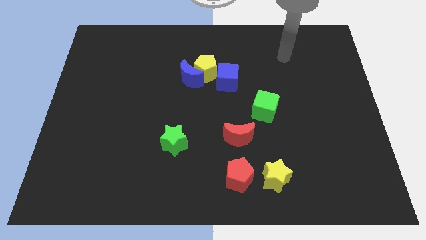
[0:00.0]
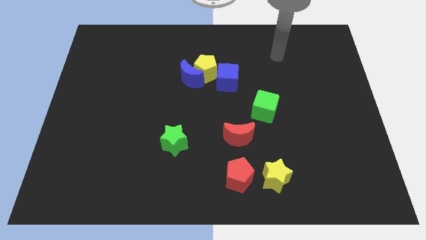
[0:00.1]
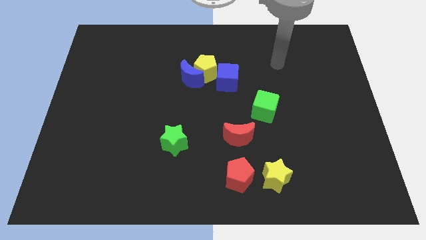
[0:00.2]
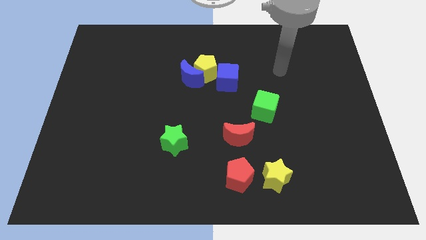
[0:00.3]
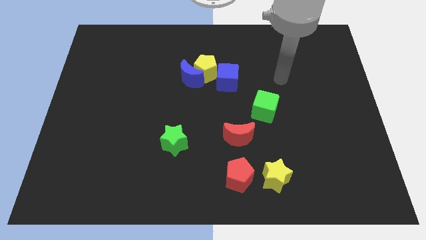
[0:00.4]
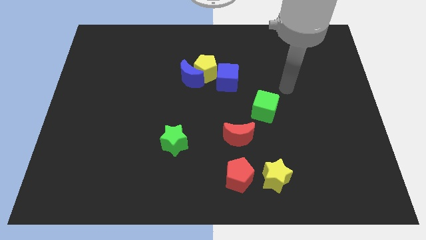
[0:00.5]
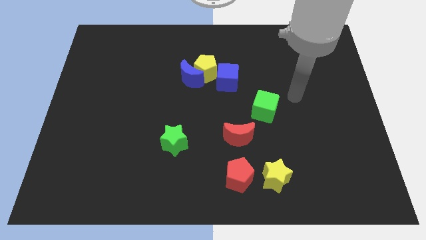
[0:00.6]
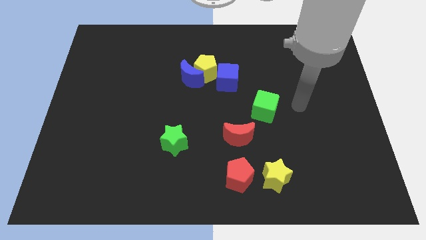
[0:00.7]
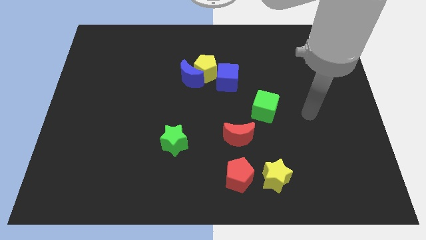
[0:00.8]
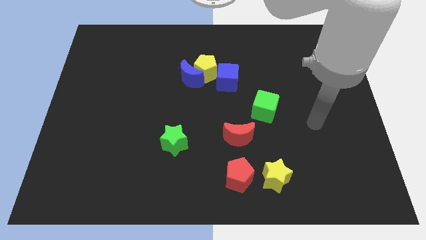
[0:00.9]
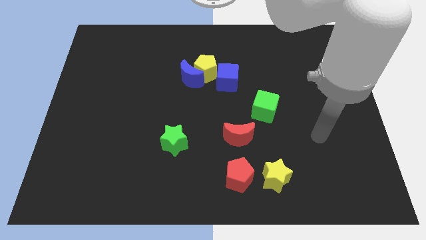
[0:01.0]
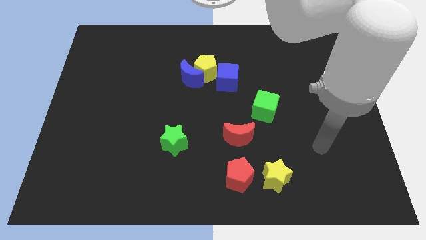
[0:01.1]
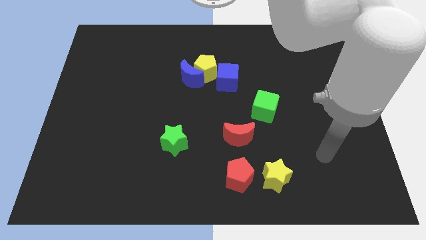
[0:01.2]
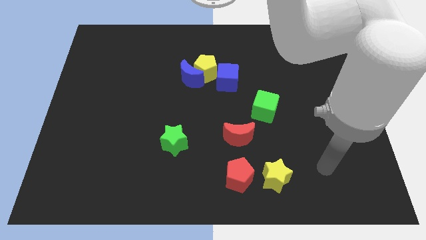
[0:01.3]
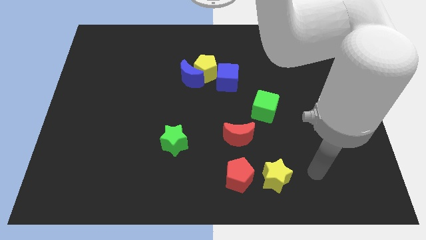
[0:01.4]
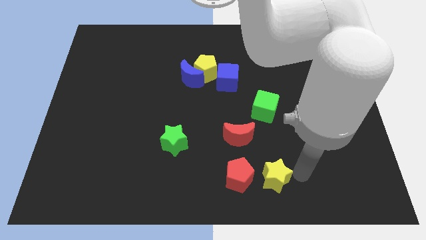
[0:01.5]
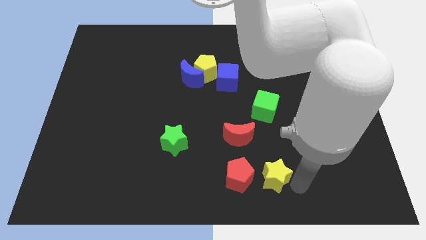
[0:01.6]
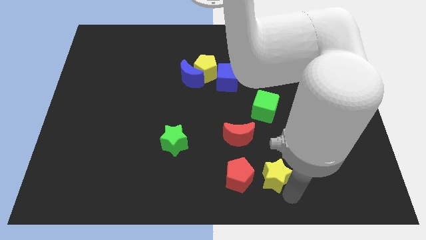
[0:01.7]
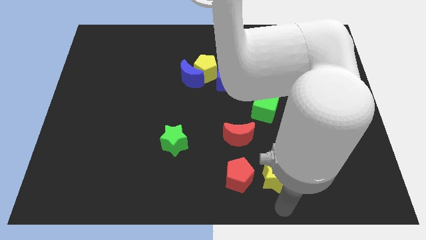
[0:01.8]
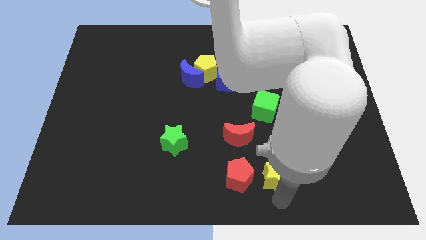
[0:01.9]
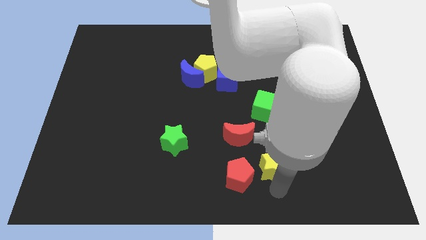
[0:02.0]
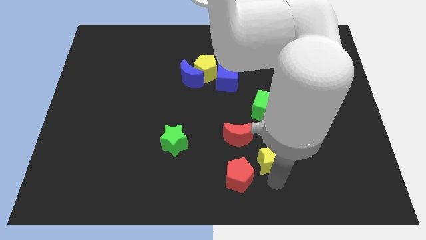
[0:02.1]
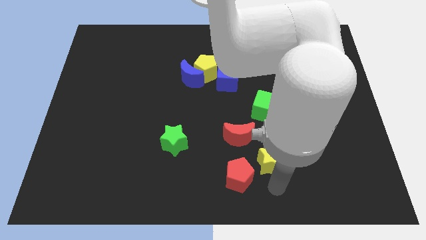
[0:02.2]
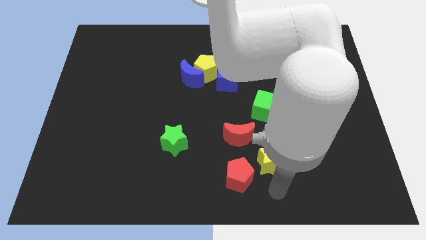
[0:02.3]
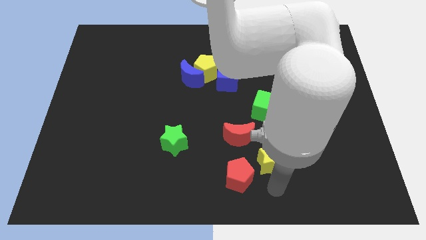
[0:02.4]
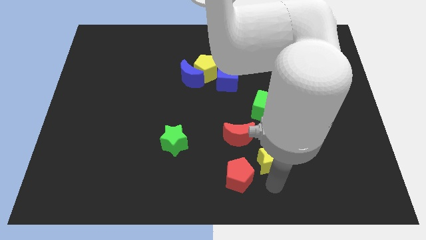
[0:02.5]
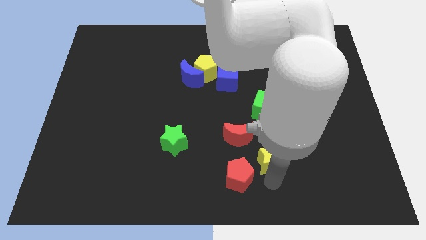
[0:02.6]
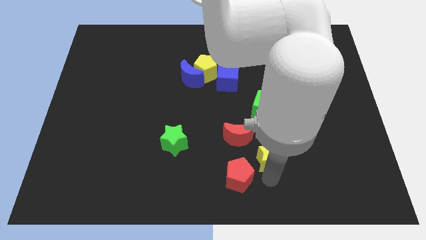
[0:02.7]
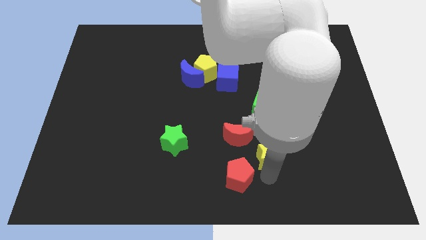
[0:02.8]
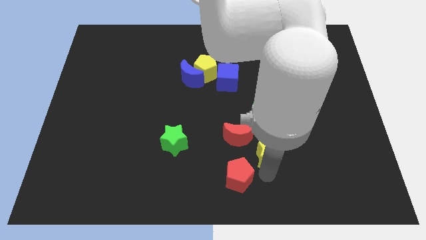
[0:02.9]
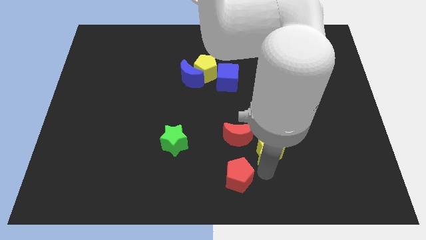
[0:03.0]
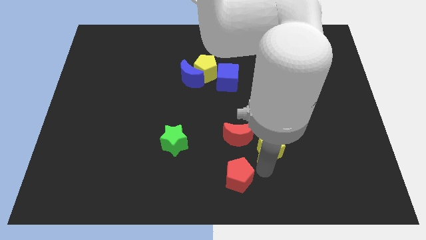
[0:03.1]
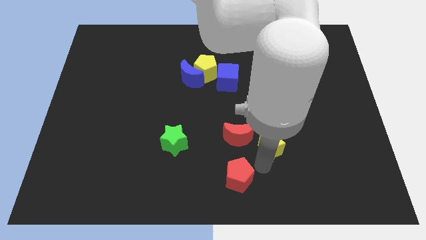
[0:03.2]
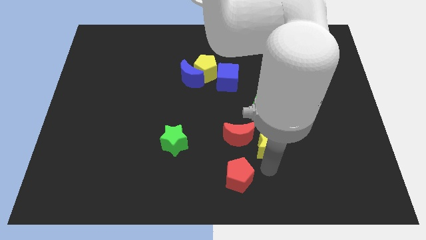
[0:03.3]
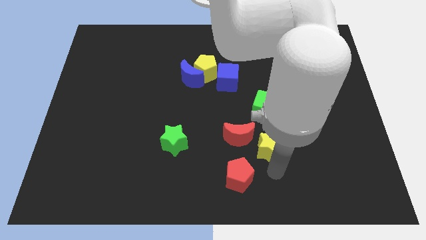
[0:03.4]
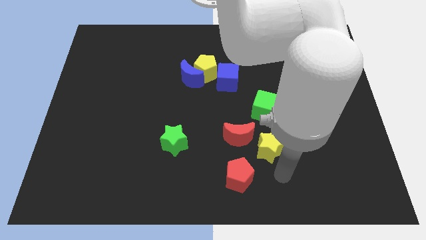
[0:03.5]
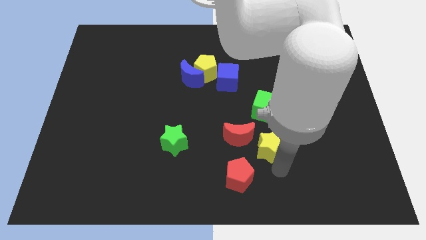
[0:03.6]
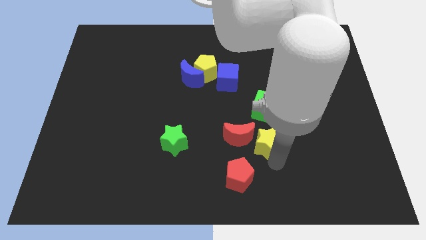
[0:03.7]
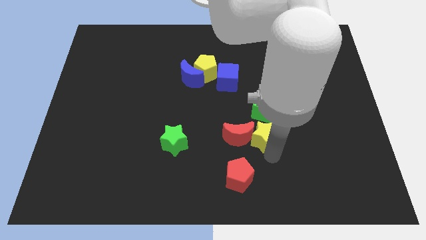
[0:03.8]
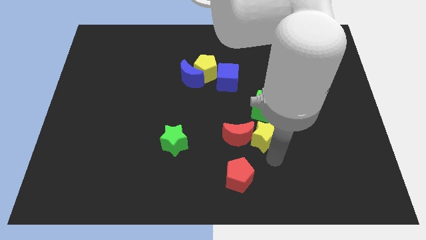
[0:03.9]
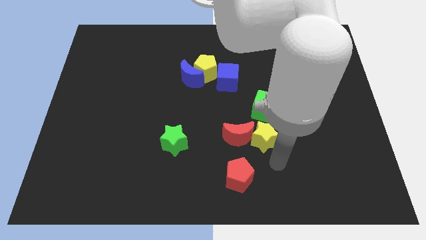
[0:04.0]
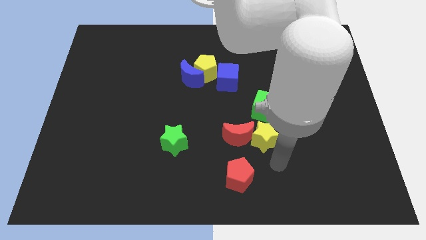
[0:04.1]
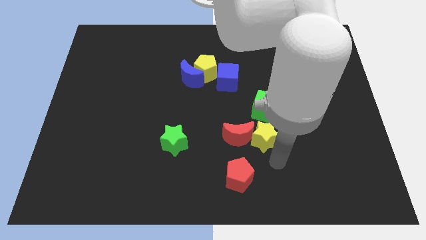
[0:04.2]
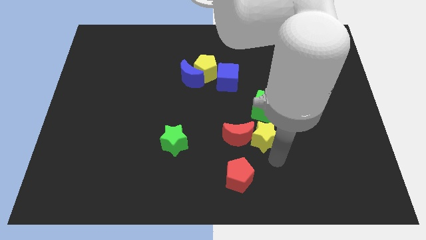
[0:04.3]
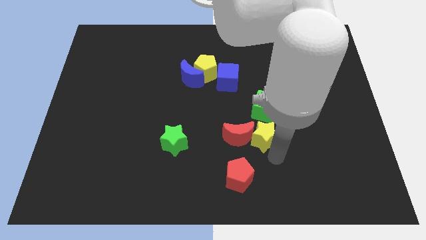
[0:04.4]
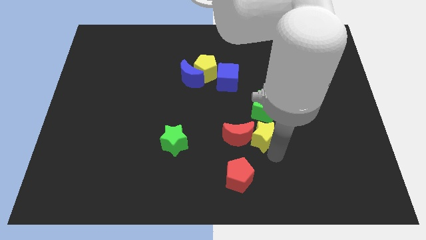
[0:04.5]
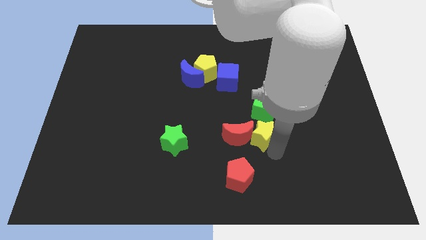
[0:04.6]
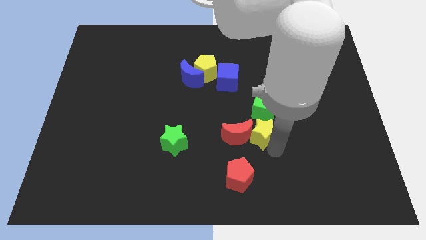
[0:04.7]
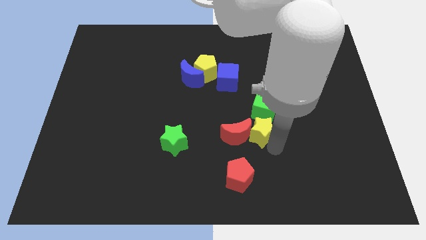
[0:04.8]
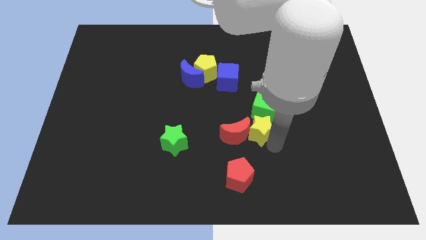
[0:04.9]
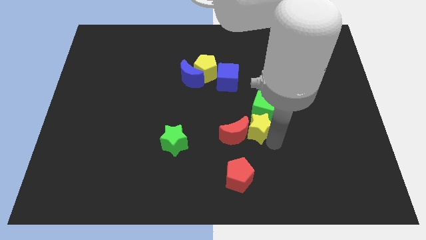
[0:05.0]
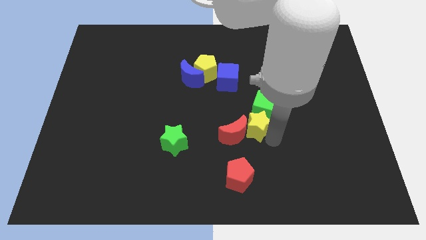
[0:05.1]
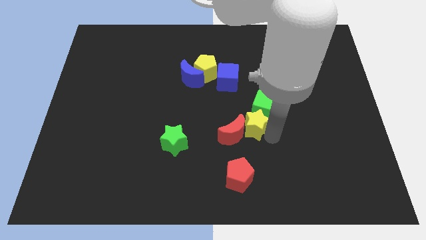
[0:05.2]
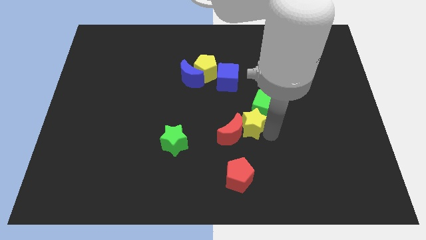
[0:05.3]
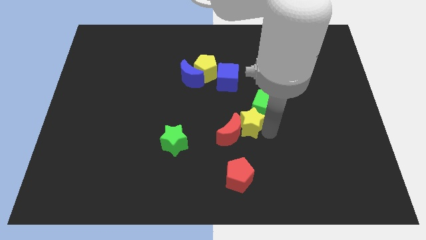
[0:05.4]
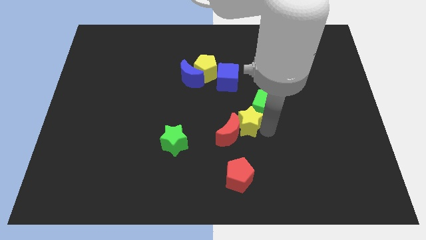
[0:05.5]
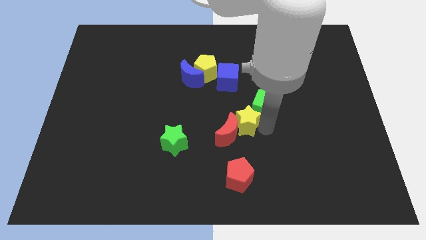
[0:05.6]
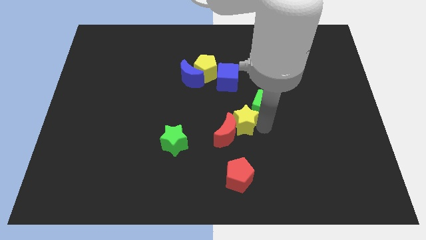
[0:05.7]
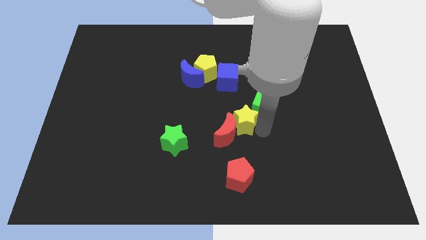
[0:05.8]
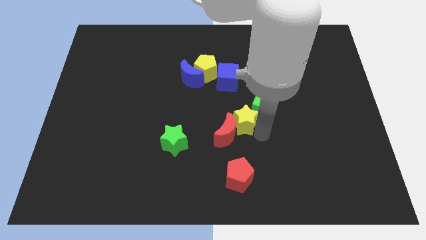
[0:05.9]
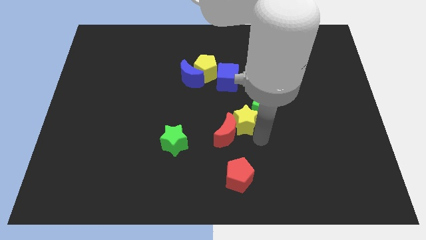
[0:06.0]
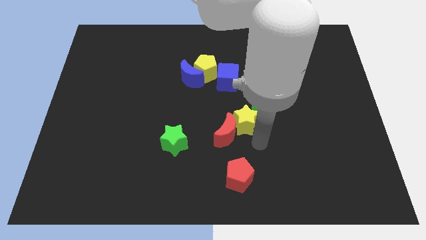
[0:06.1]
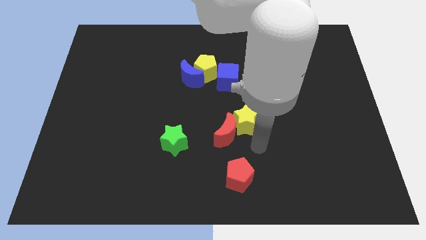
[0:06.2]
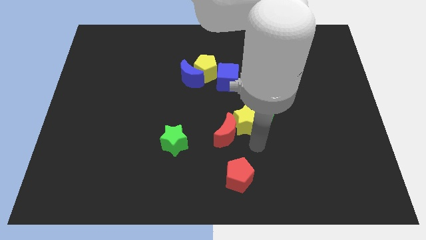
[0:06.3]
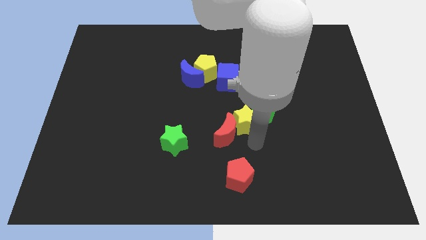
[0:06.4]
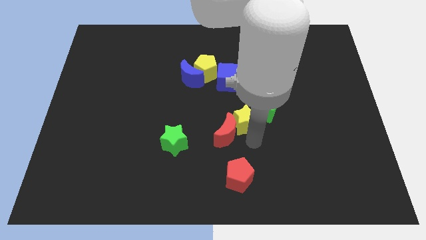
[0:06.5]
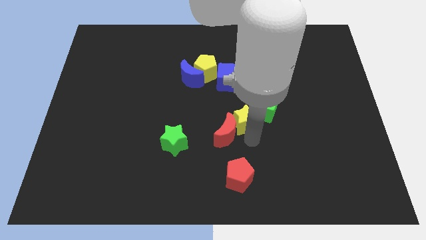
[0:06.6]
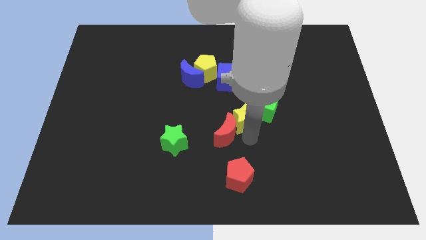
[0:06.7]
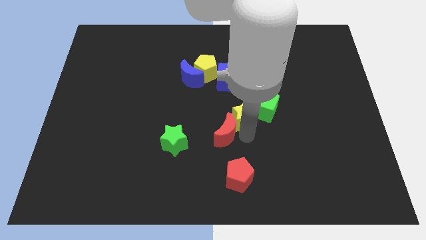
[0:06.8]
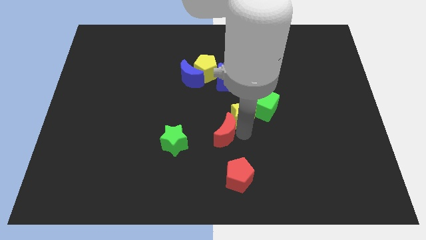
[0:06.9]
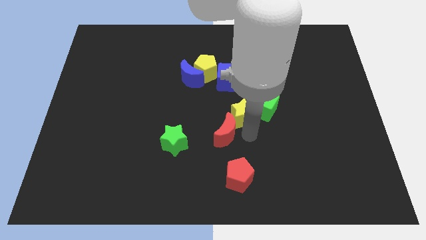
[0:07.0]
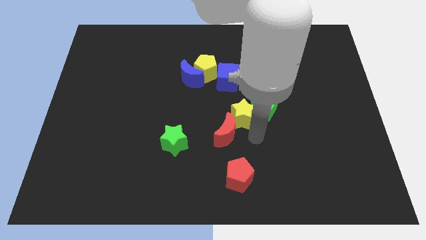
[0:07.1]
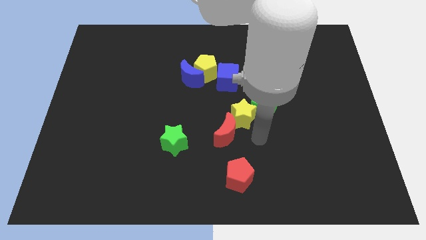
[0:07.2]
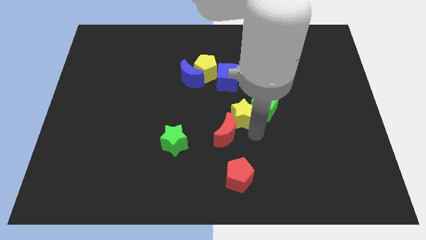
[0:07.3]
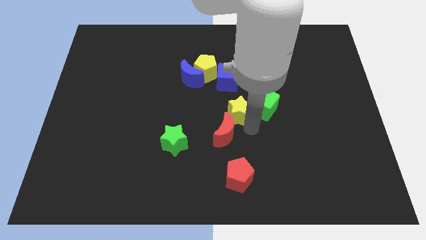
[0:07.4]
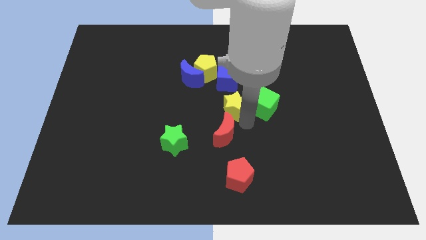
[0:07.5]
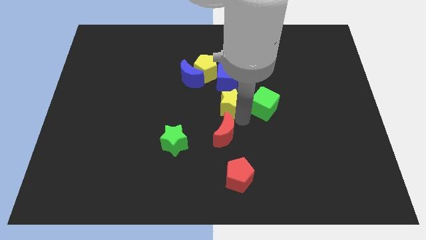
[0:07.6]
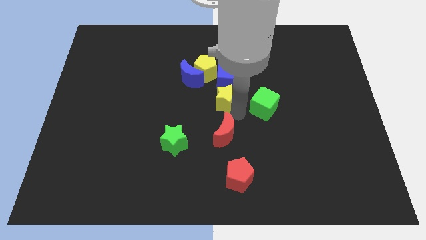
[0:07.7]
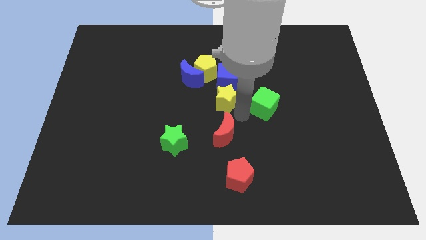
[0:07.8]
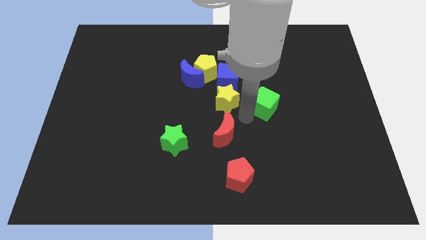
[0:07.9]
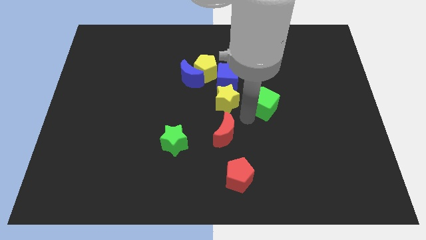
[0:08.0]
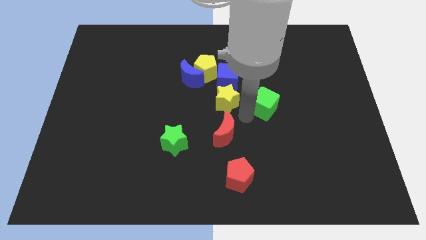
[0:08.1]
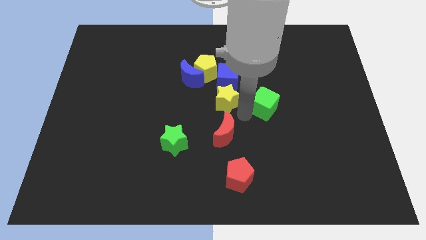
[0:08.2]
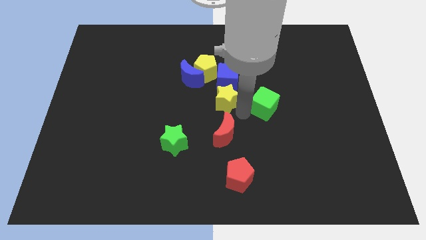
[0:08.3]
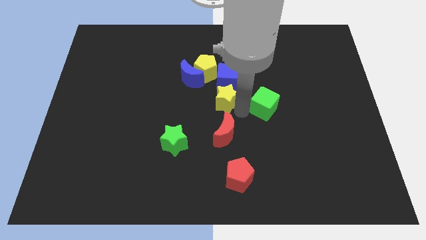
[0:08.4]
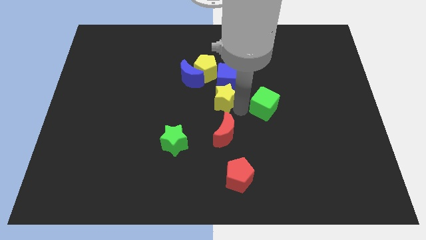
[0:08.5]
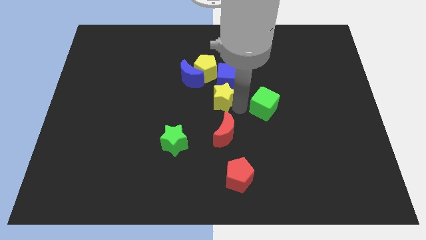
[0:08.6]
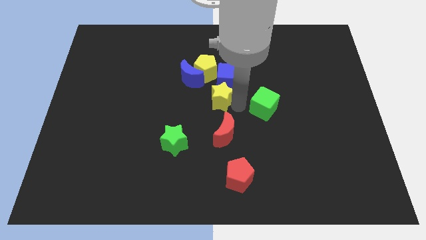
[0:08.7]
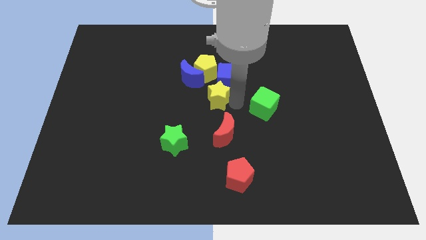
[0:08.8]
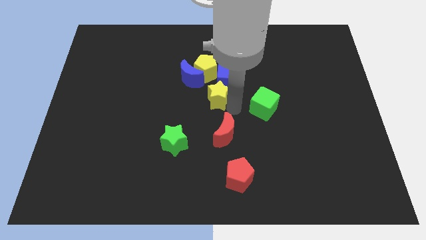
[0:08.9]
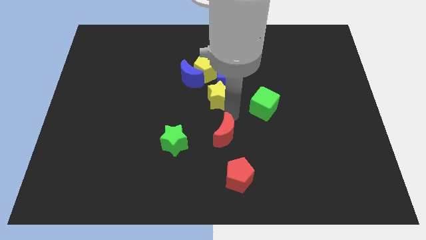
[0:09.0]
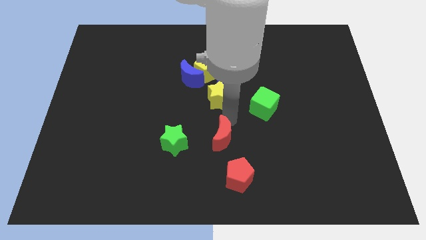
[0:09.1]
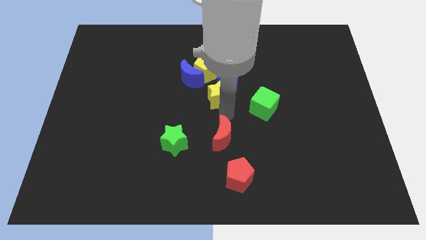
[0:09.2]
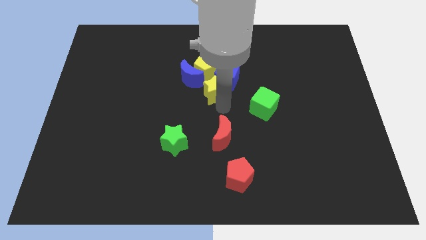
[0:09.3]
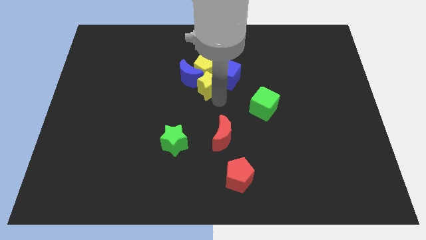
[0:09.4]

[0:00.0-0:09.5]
slide the yellow star to the yellow pentagon
